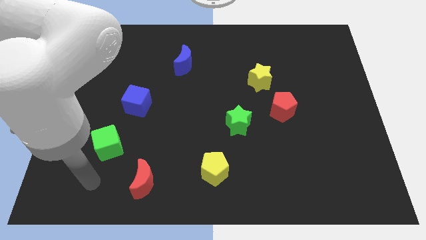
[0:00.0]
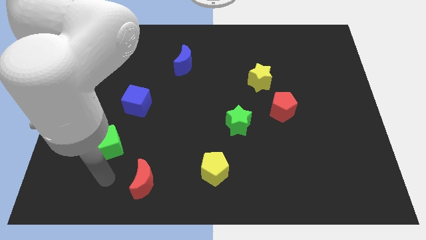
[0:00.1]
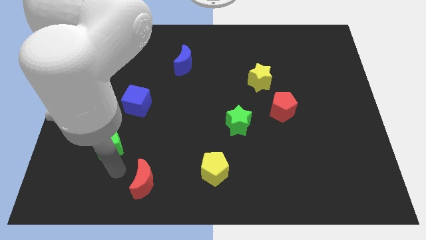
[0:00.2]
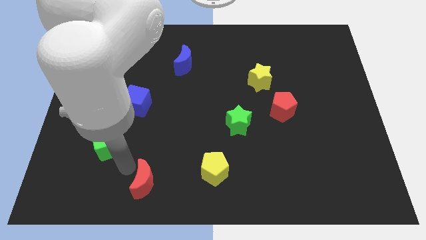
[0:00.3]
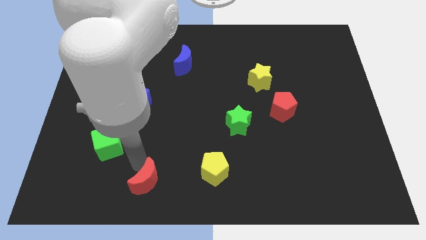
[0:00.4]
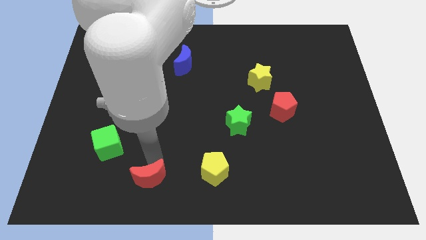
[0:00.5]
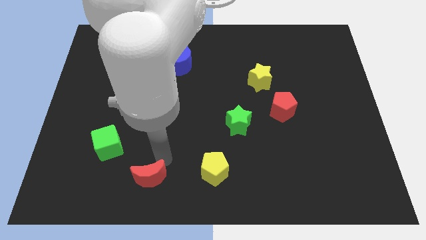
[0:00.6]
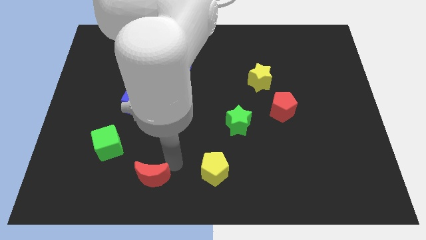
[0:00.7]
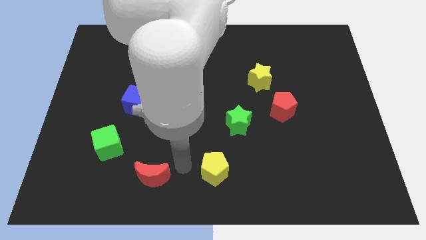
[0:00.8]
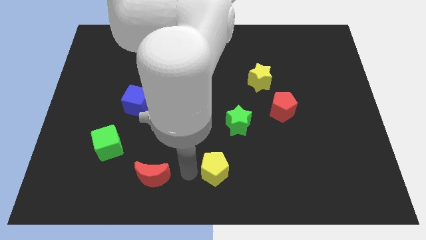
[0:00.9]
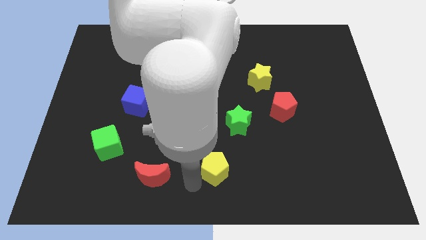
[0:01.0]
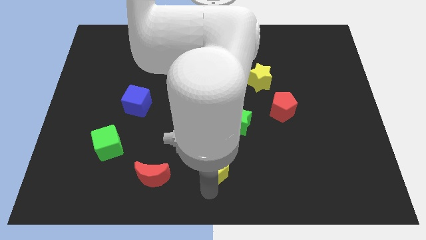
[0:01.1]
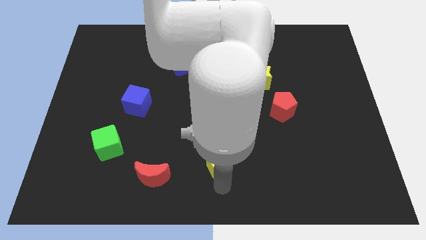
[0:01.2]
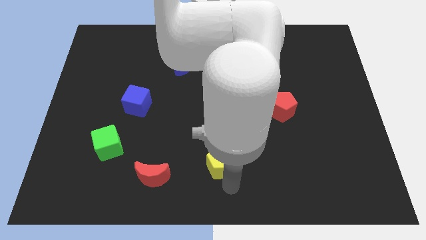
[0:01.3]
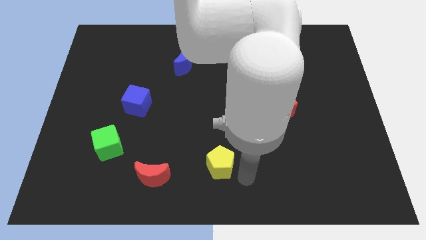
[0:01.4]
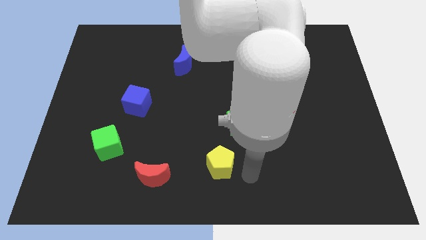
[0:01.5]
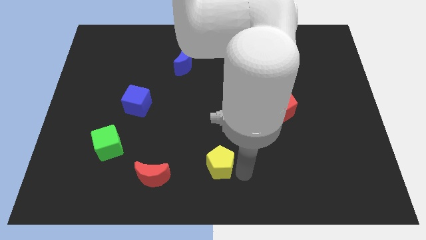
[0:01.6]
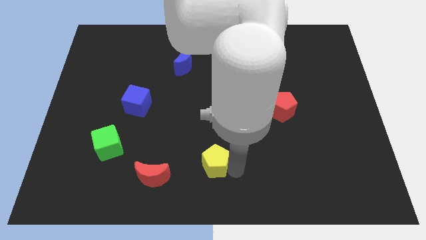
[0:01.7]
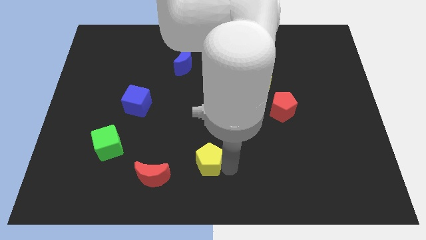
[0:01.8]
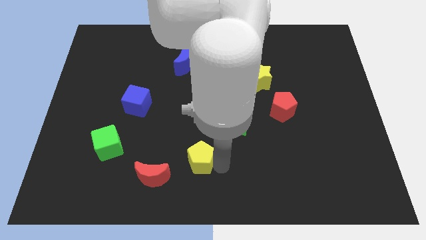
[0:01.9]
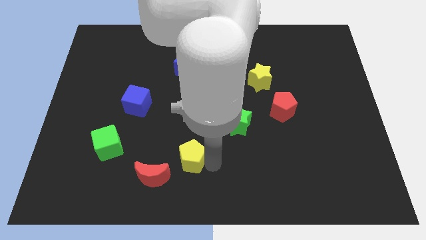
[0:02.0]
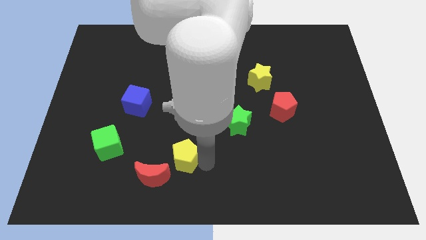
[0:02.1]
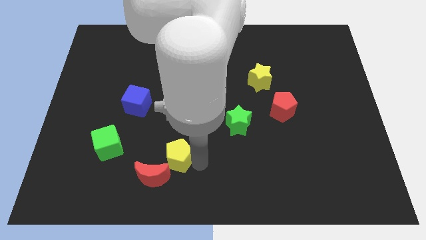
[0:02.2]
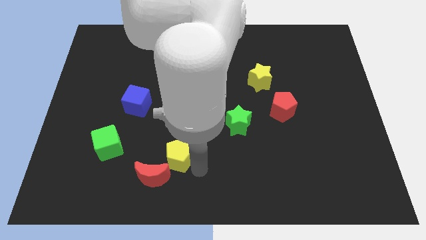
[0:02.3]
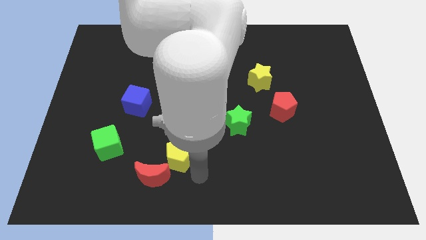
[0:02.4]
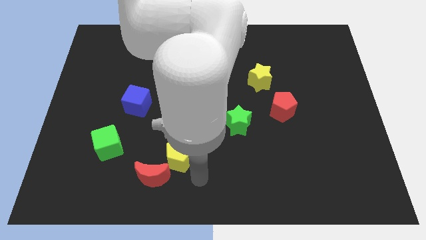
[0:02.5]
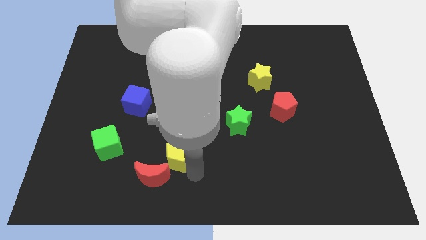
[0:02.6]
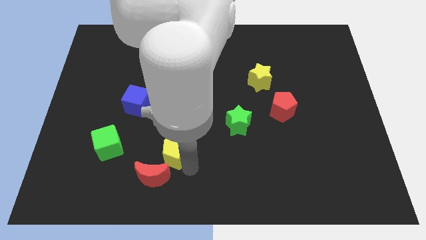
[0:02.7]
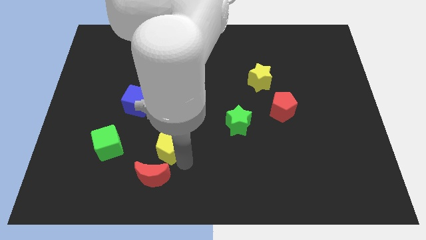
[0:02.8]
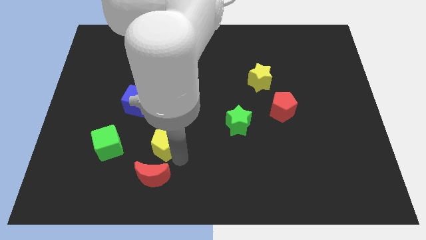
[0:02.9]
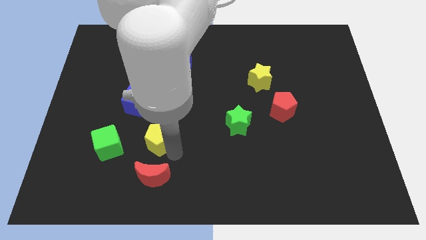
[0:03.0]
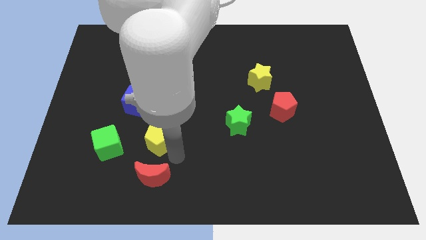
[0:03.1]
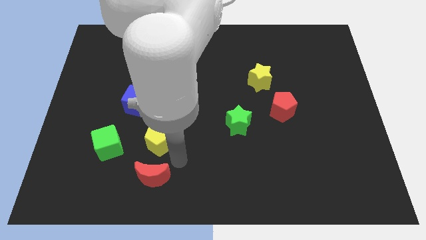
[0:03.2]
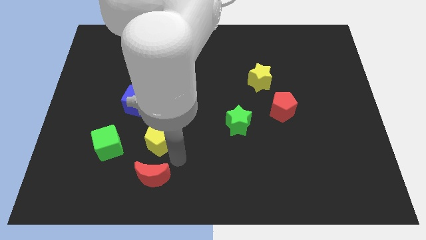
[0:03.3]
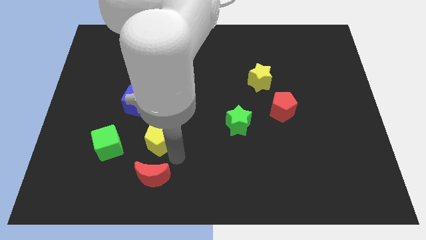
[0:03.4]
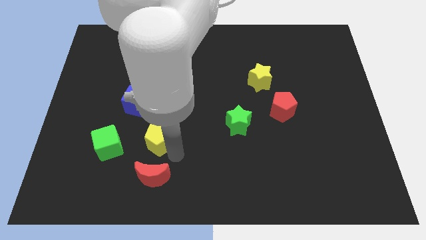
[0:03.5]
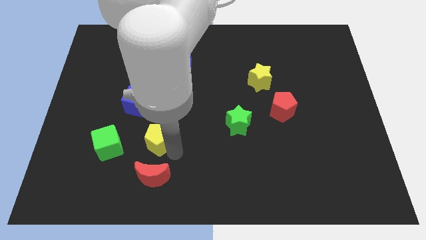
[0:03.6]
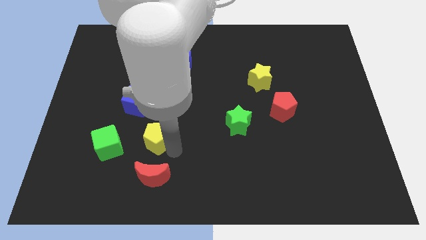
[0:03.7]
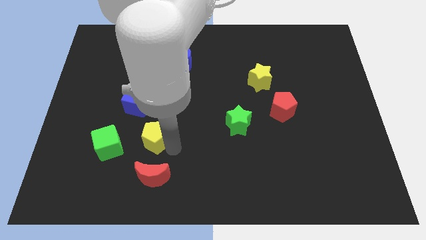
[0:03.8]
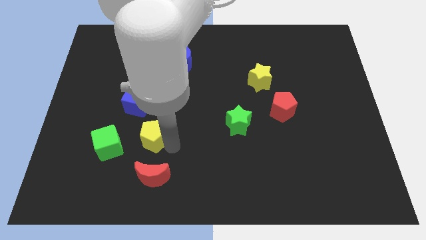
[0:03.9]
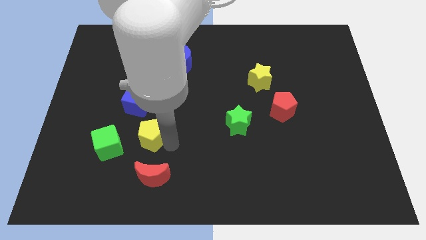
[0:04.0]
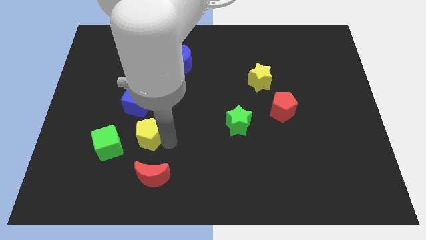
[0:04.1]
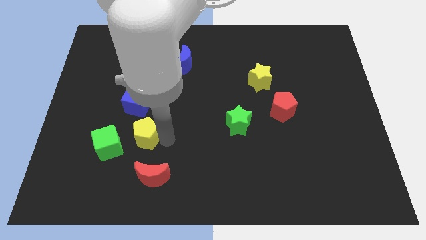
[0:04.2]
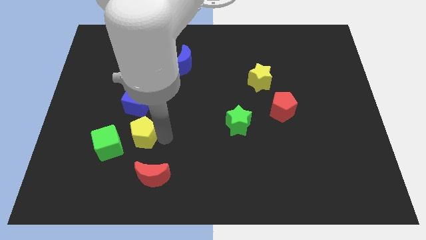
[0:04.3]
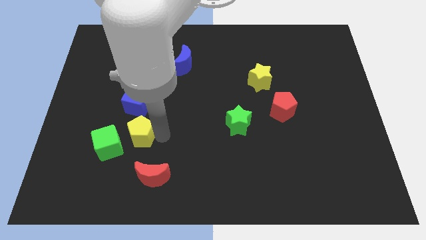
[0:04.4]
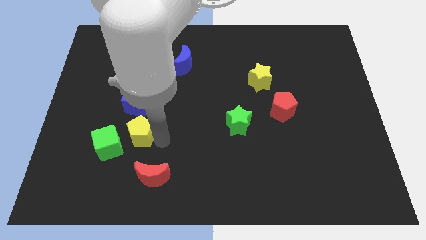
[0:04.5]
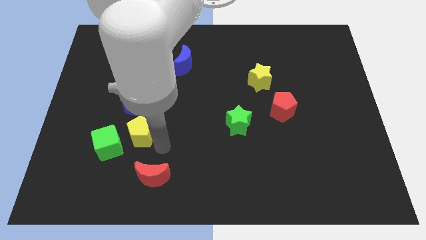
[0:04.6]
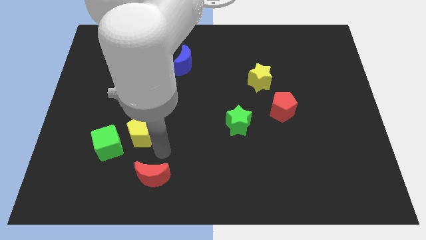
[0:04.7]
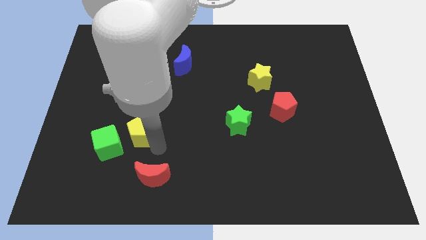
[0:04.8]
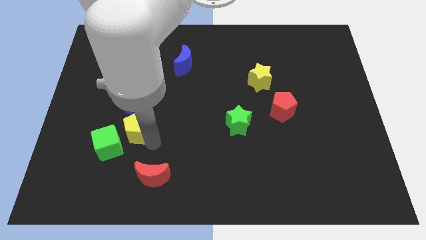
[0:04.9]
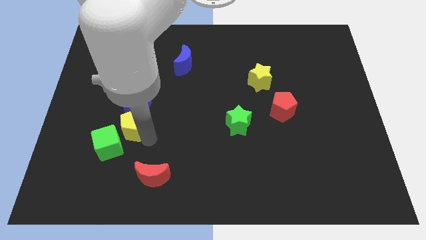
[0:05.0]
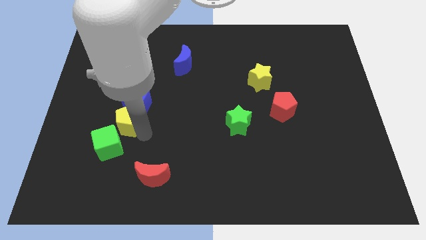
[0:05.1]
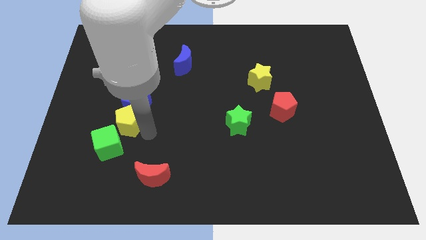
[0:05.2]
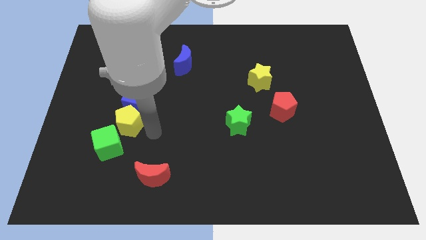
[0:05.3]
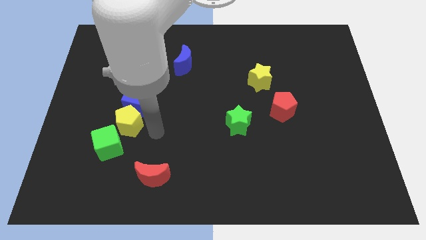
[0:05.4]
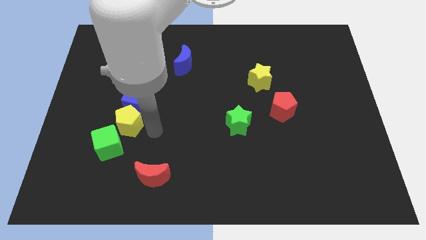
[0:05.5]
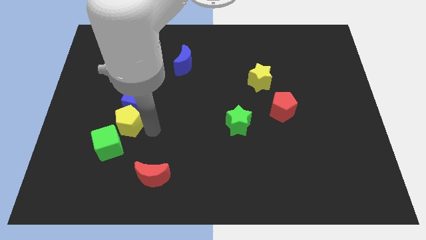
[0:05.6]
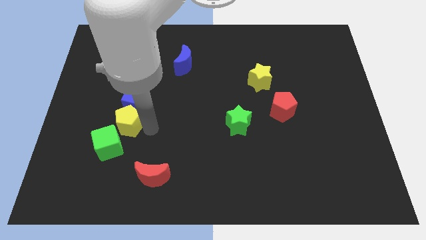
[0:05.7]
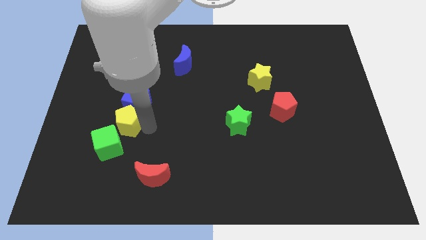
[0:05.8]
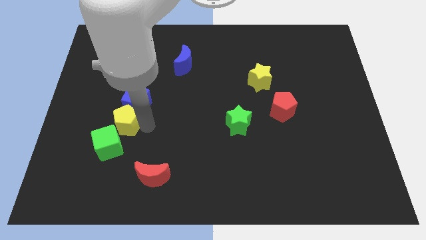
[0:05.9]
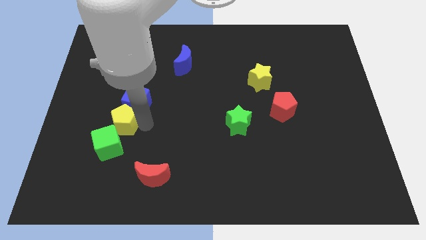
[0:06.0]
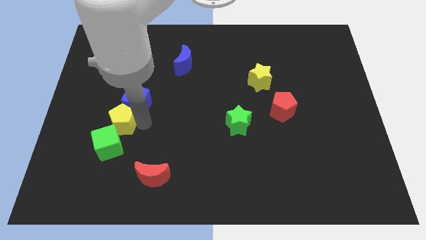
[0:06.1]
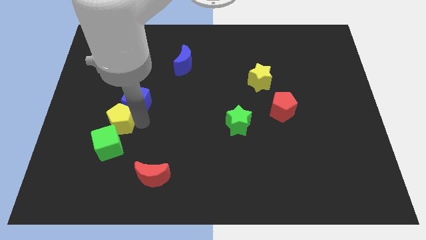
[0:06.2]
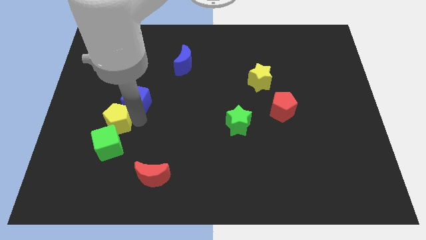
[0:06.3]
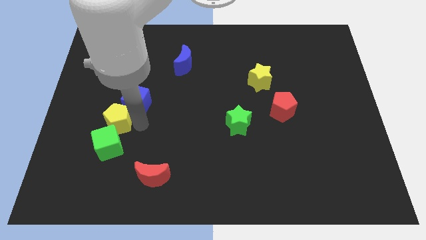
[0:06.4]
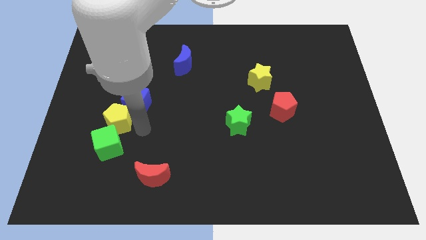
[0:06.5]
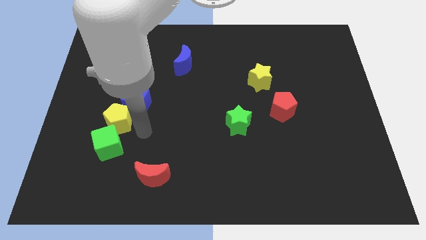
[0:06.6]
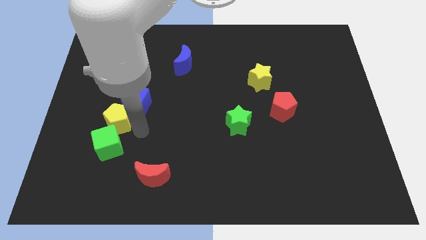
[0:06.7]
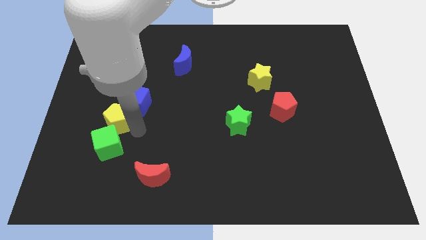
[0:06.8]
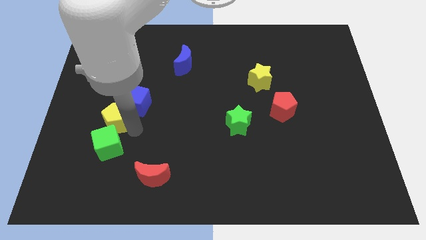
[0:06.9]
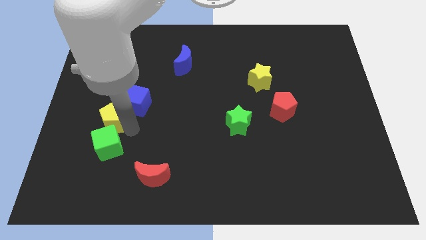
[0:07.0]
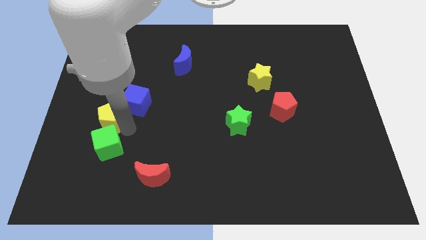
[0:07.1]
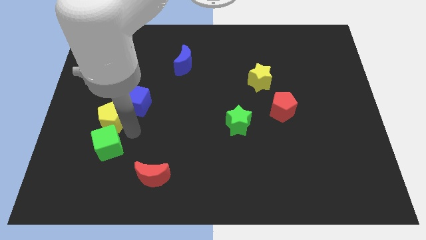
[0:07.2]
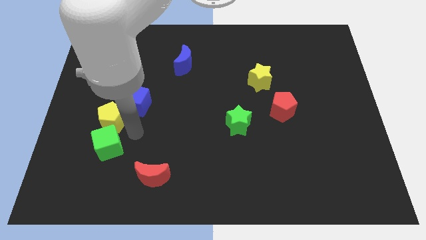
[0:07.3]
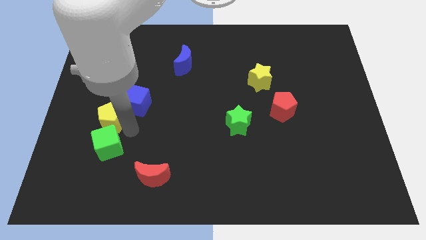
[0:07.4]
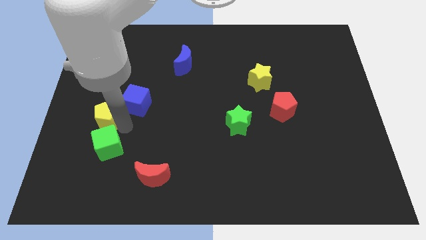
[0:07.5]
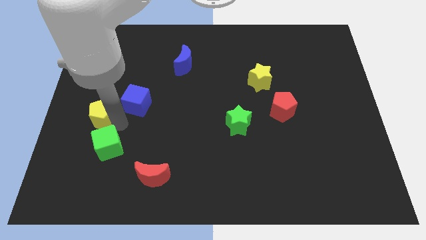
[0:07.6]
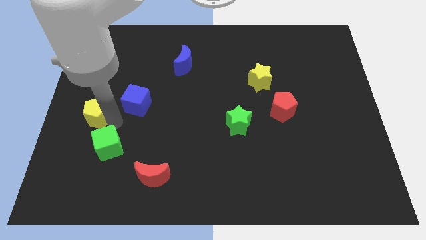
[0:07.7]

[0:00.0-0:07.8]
move the yellow pentagon to the left side of the board
